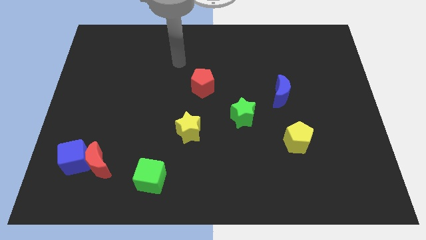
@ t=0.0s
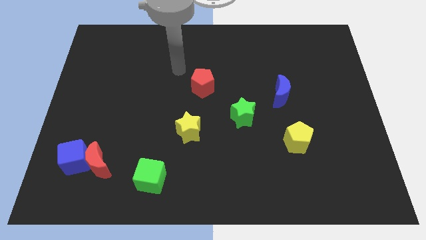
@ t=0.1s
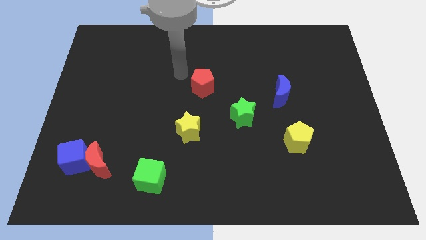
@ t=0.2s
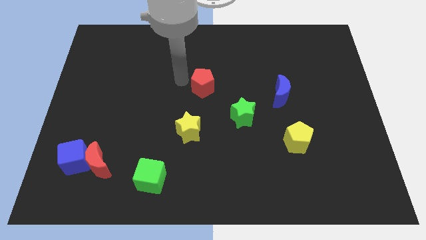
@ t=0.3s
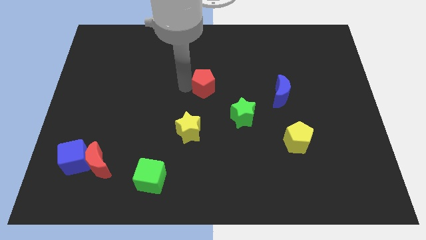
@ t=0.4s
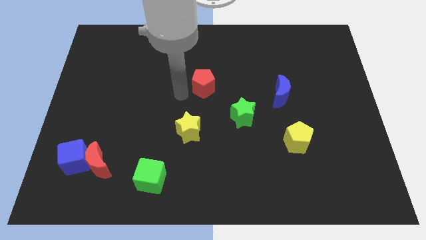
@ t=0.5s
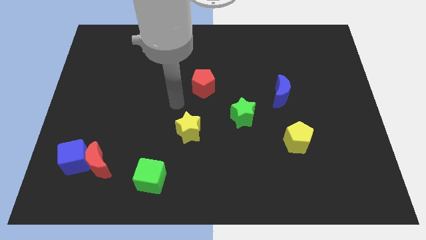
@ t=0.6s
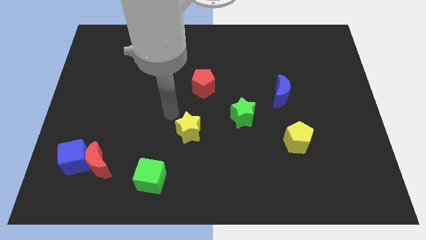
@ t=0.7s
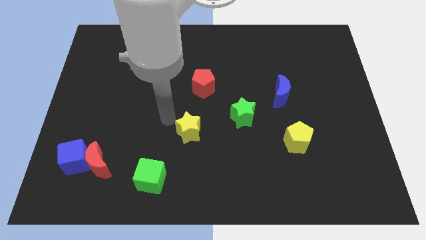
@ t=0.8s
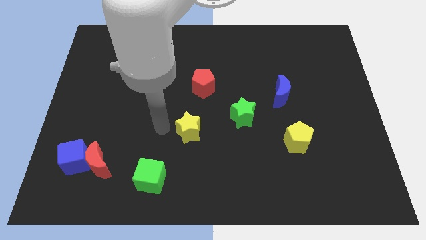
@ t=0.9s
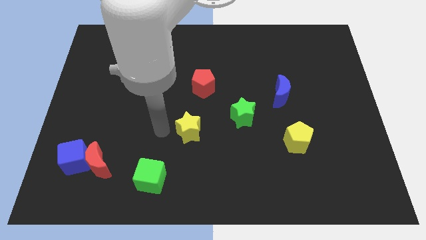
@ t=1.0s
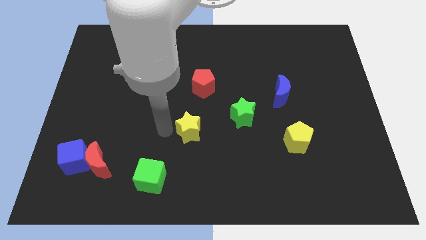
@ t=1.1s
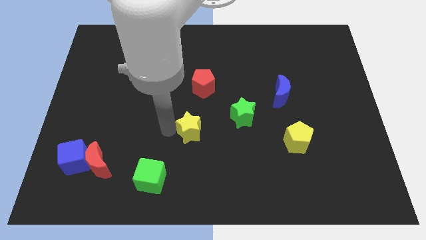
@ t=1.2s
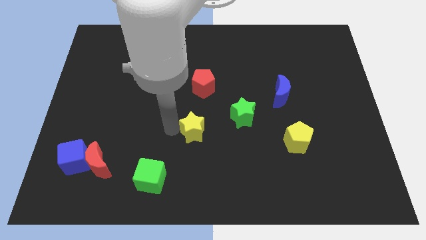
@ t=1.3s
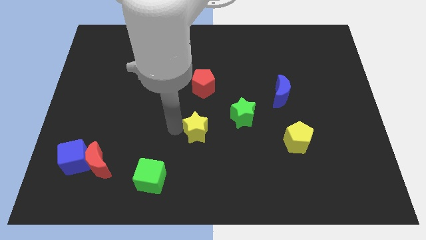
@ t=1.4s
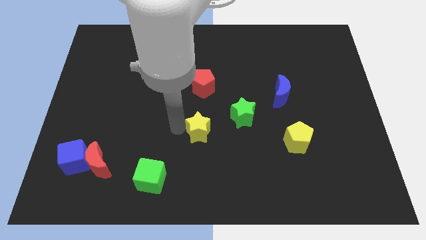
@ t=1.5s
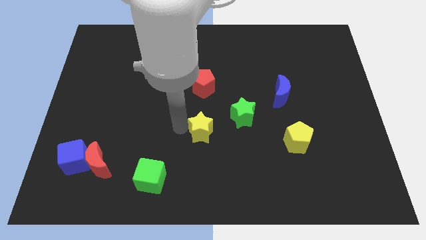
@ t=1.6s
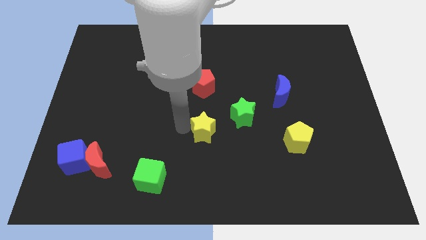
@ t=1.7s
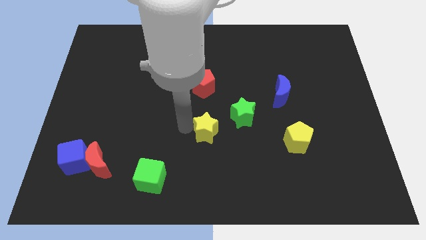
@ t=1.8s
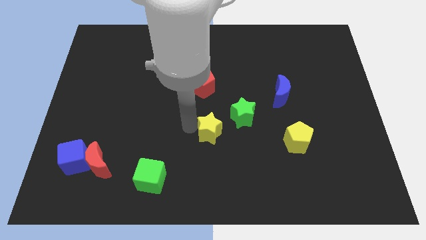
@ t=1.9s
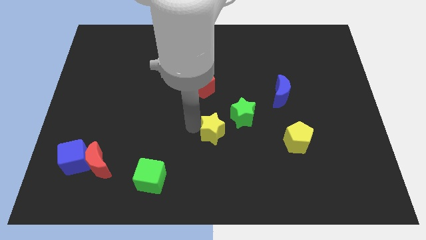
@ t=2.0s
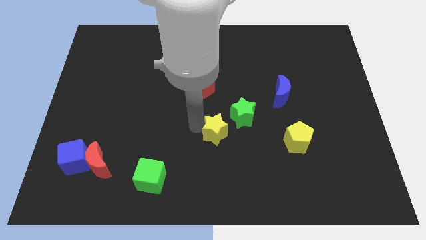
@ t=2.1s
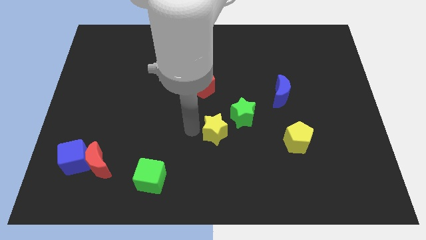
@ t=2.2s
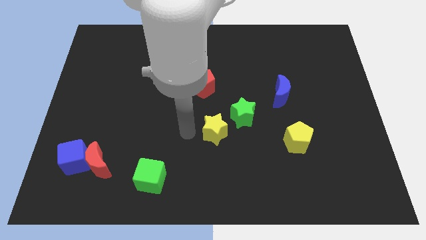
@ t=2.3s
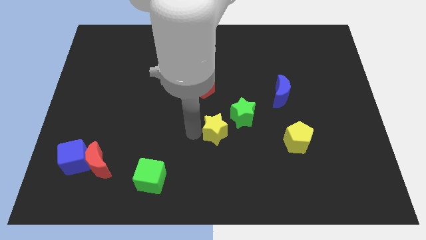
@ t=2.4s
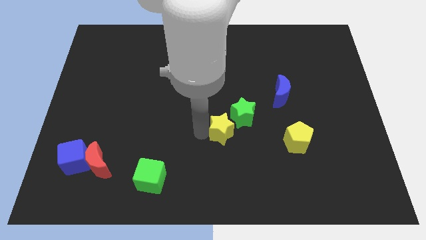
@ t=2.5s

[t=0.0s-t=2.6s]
move the yellow star right a little

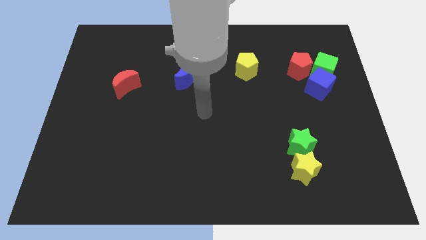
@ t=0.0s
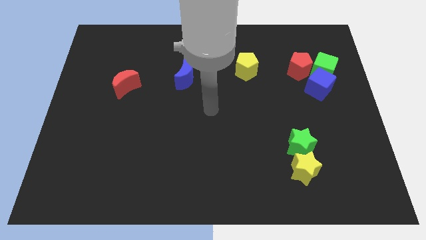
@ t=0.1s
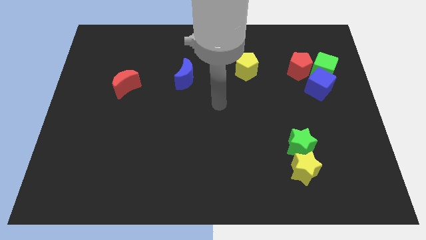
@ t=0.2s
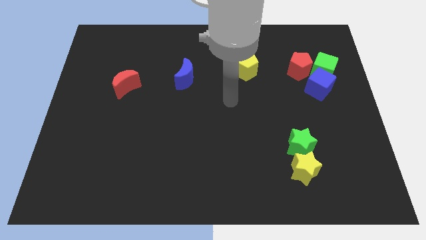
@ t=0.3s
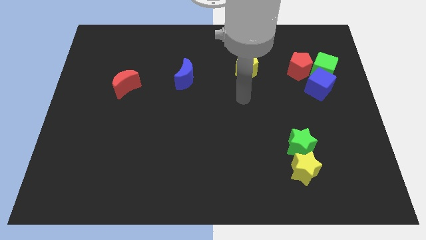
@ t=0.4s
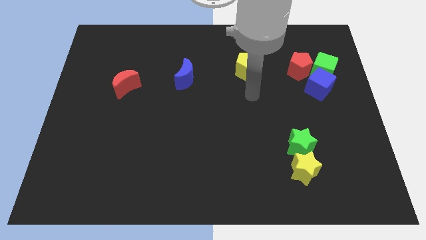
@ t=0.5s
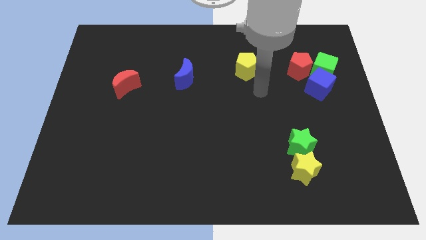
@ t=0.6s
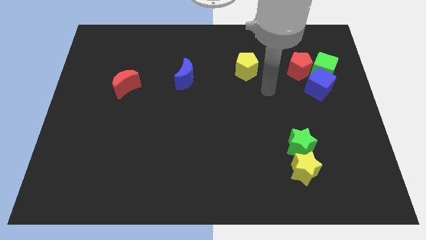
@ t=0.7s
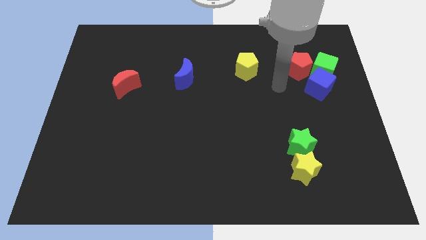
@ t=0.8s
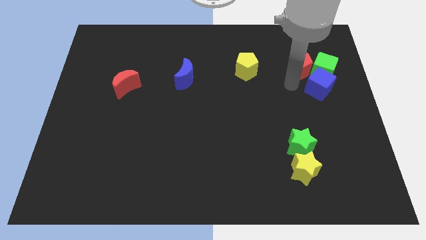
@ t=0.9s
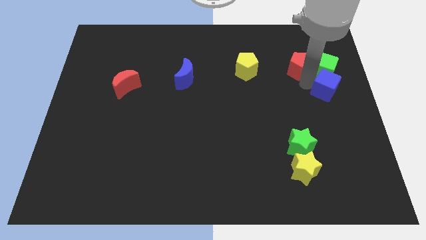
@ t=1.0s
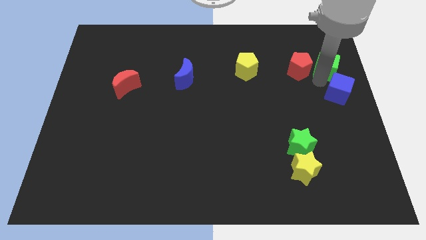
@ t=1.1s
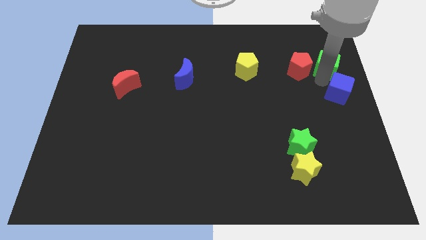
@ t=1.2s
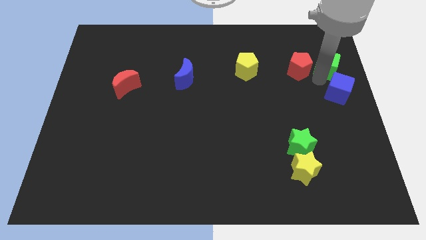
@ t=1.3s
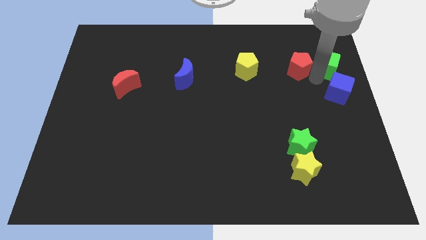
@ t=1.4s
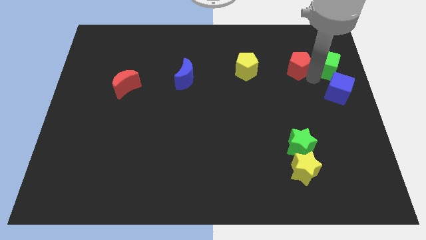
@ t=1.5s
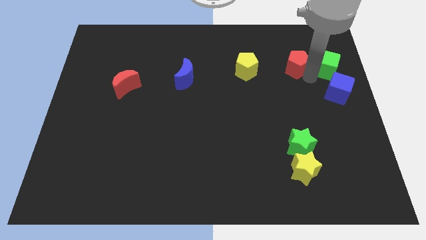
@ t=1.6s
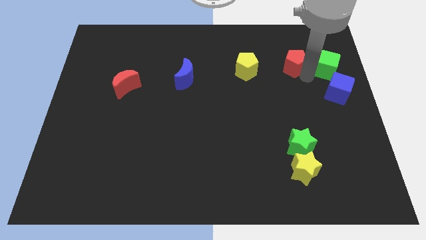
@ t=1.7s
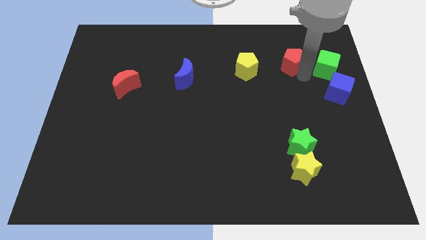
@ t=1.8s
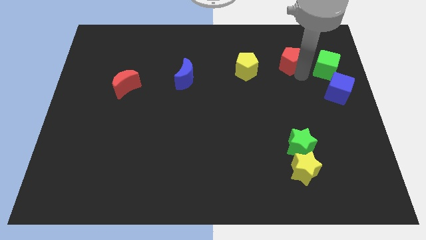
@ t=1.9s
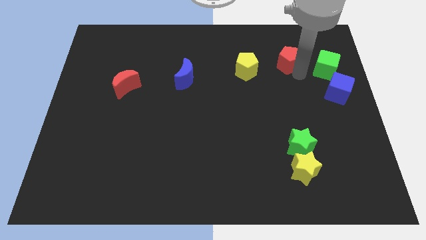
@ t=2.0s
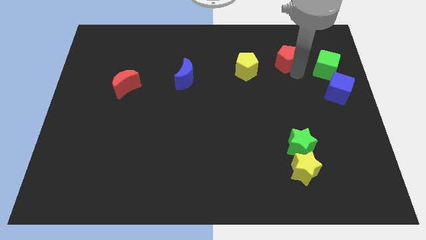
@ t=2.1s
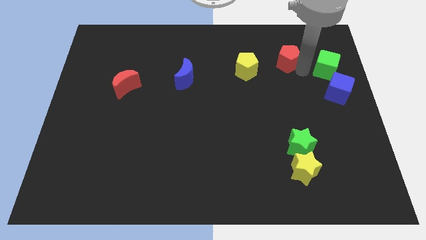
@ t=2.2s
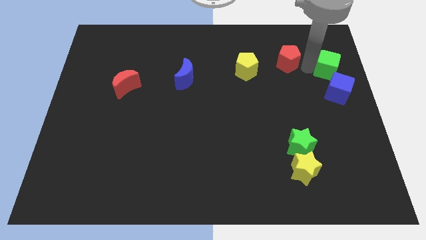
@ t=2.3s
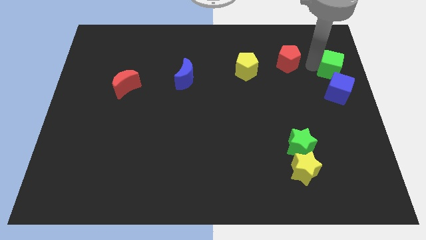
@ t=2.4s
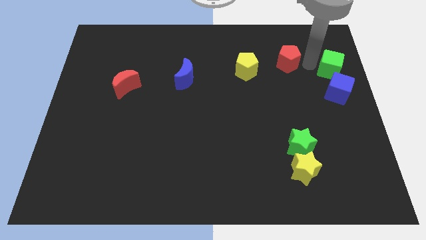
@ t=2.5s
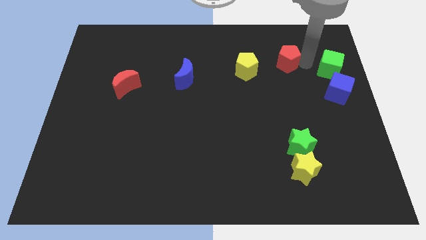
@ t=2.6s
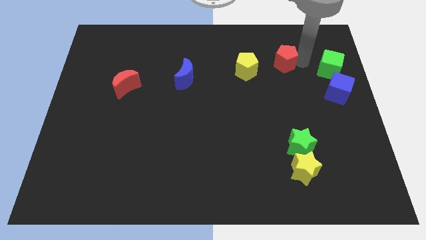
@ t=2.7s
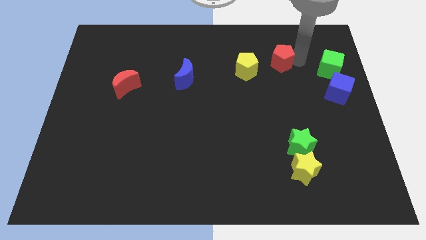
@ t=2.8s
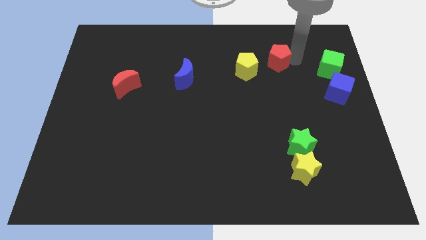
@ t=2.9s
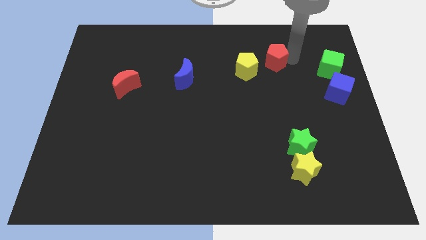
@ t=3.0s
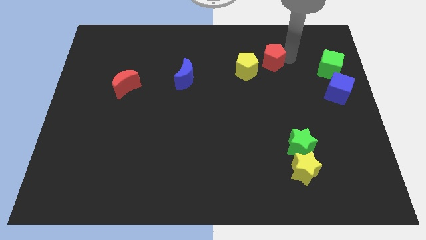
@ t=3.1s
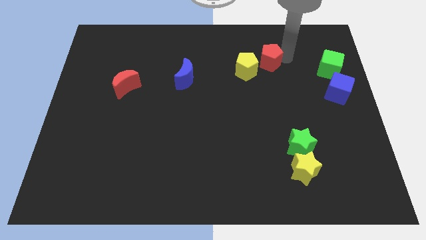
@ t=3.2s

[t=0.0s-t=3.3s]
slide the red pentagon left a little

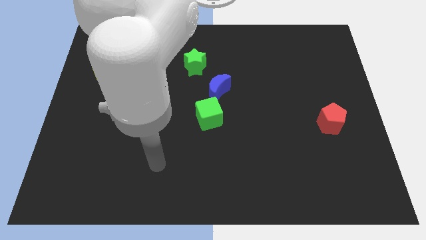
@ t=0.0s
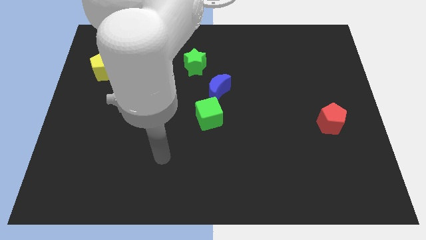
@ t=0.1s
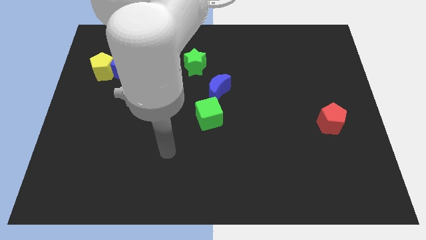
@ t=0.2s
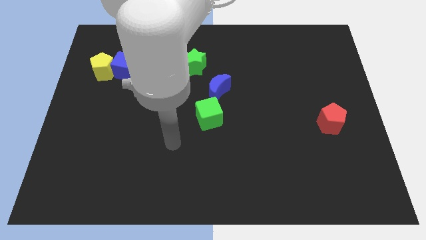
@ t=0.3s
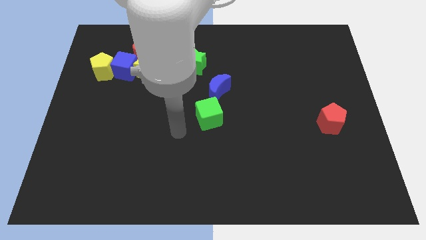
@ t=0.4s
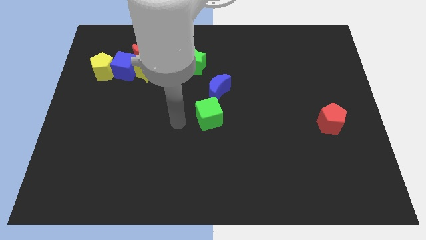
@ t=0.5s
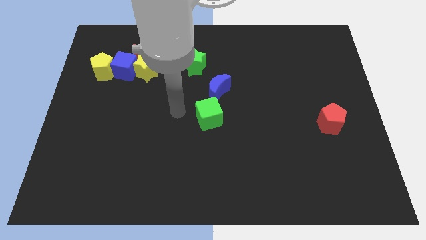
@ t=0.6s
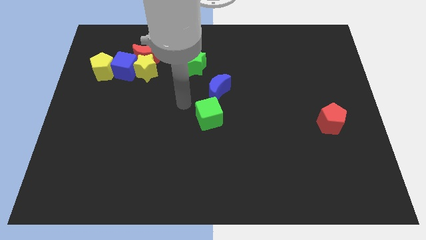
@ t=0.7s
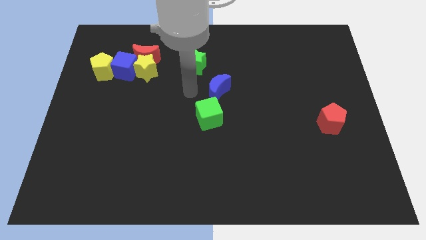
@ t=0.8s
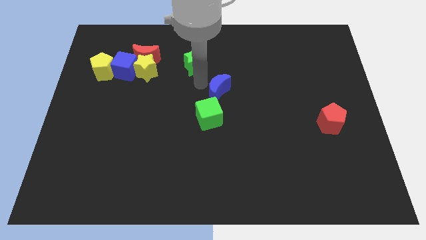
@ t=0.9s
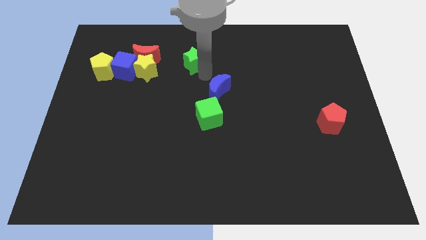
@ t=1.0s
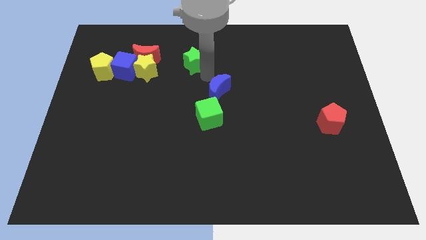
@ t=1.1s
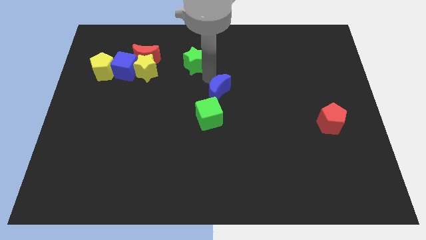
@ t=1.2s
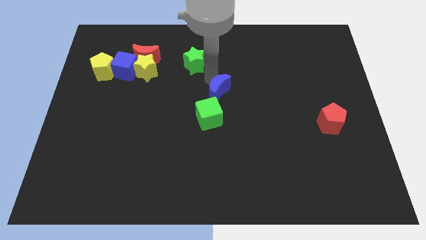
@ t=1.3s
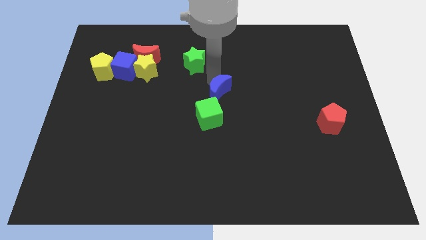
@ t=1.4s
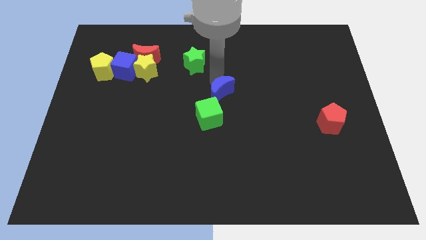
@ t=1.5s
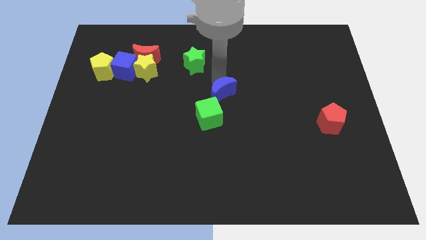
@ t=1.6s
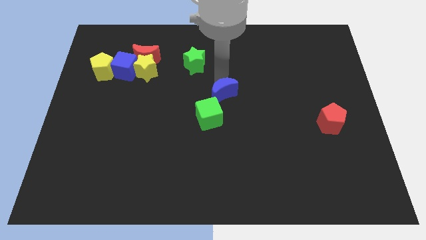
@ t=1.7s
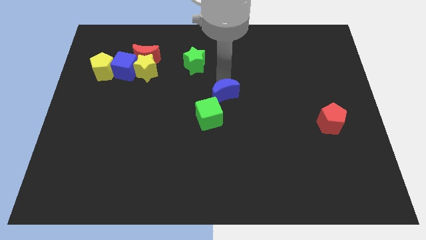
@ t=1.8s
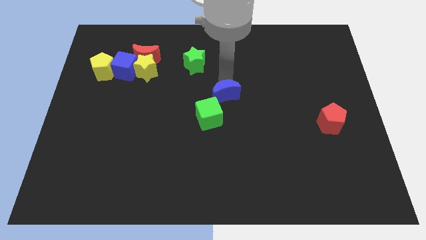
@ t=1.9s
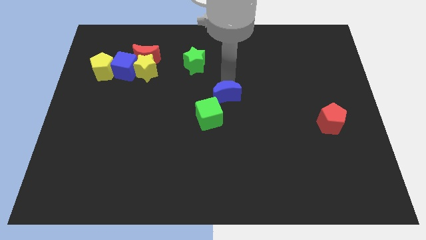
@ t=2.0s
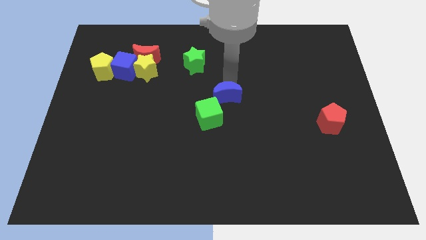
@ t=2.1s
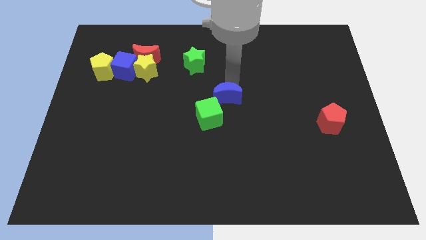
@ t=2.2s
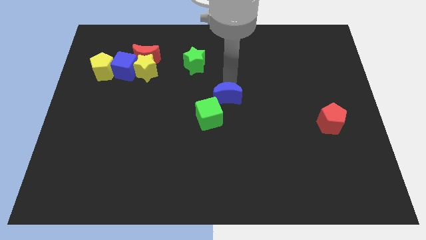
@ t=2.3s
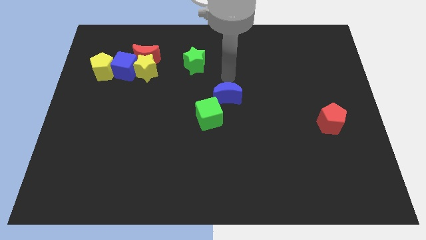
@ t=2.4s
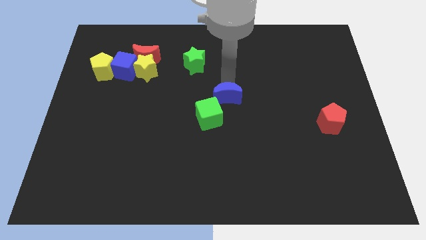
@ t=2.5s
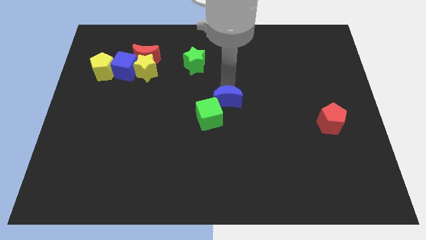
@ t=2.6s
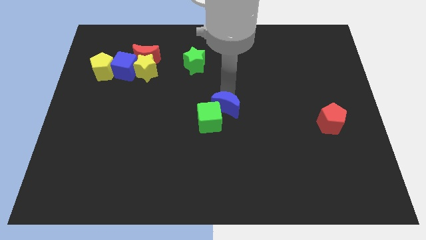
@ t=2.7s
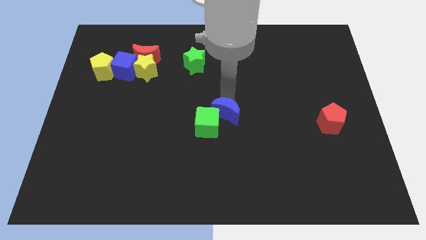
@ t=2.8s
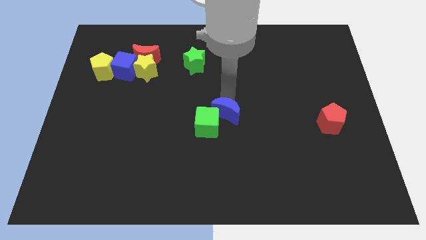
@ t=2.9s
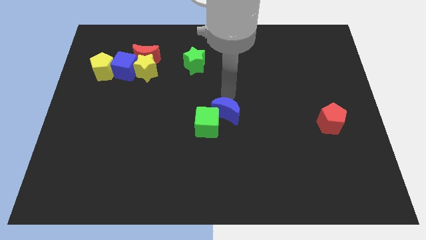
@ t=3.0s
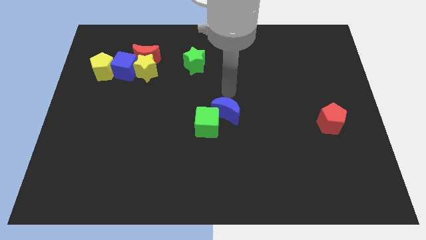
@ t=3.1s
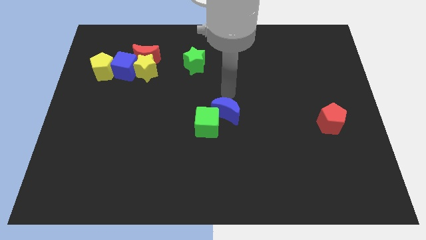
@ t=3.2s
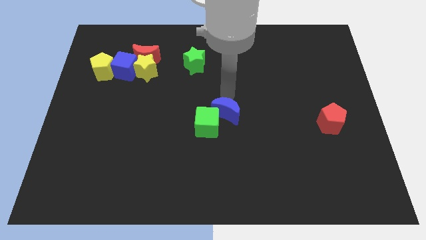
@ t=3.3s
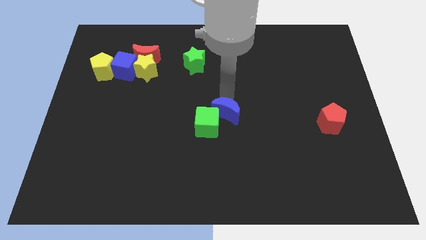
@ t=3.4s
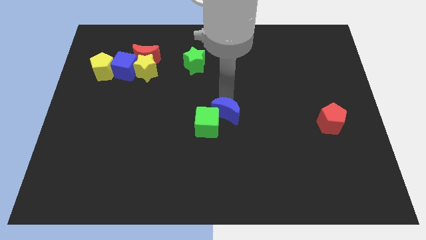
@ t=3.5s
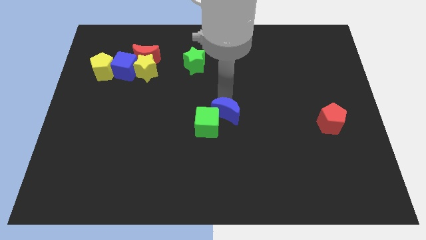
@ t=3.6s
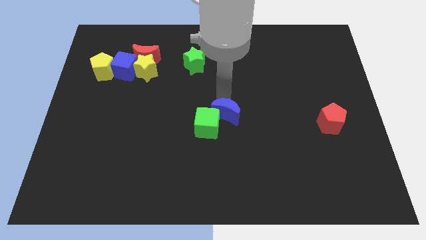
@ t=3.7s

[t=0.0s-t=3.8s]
move the blue moon down slightly
